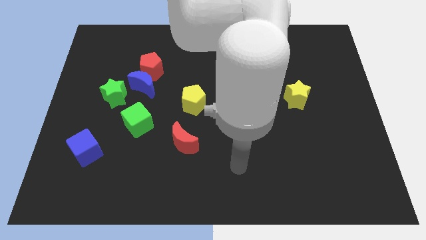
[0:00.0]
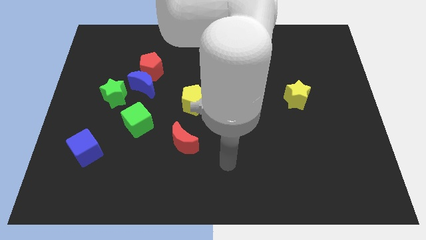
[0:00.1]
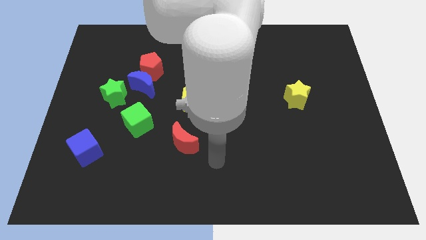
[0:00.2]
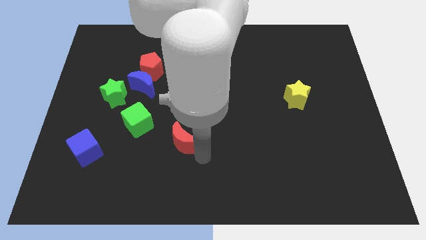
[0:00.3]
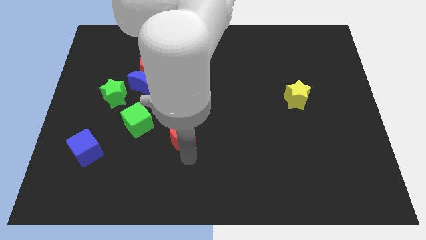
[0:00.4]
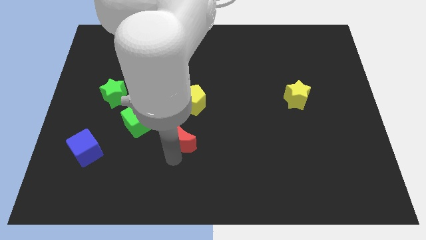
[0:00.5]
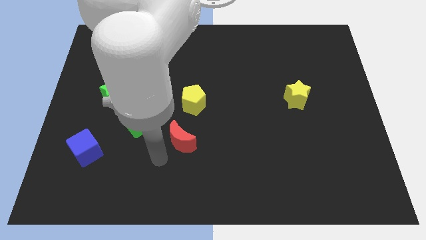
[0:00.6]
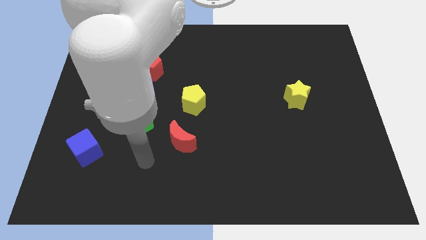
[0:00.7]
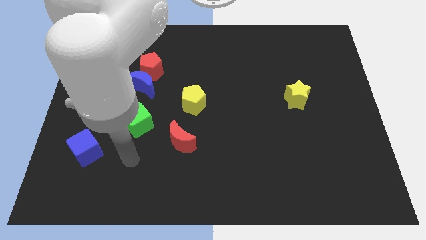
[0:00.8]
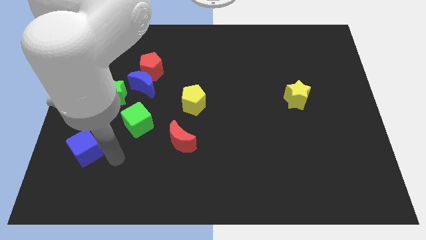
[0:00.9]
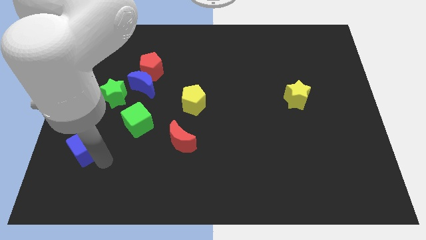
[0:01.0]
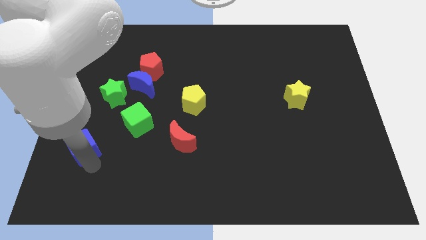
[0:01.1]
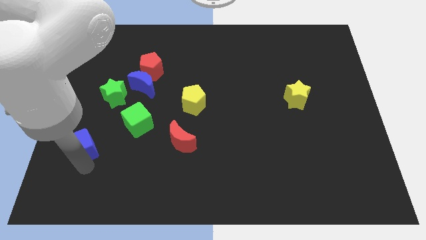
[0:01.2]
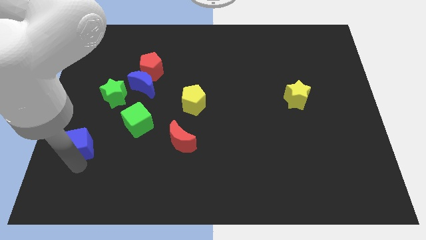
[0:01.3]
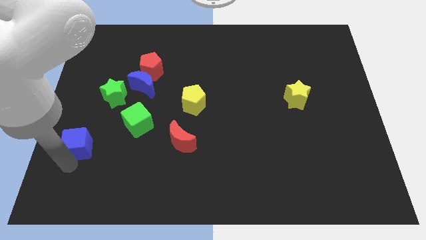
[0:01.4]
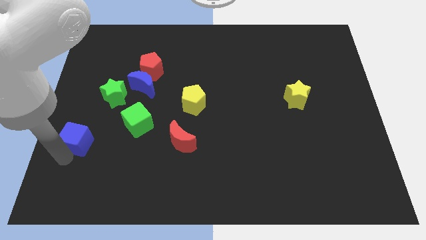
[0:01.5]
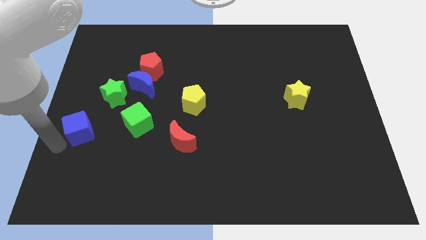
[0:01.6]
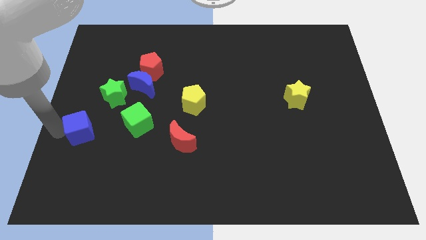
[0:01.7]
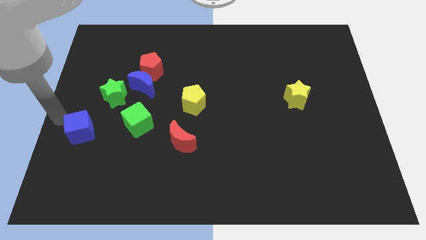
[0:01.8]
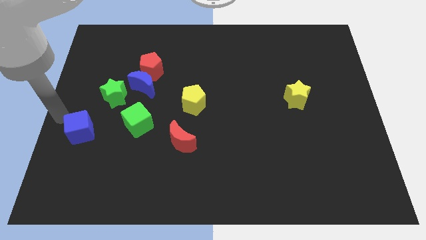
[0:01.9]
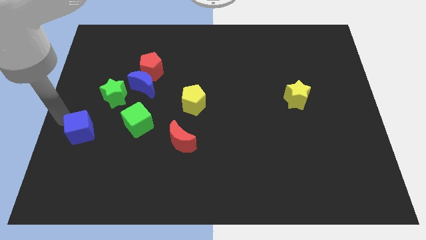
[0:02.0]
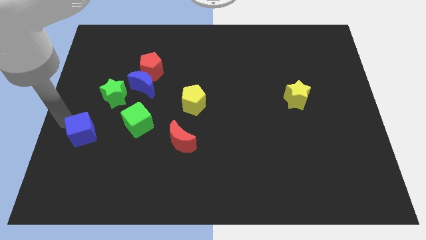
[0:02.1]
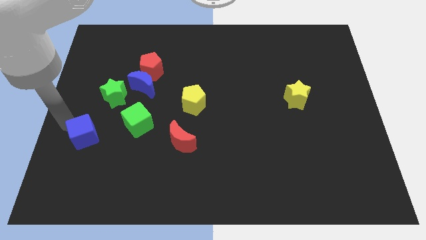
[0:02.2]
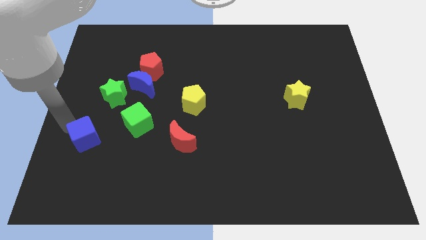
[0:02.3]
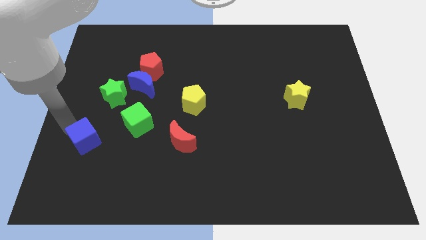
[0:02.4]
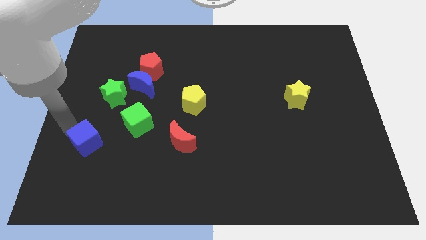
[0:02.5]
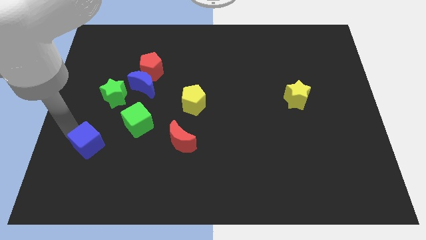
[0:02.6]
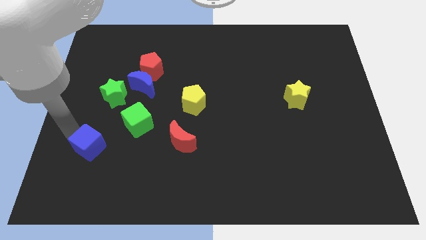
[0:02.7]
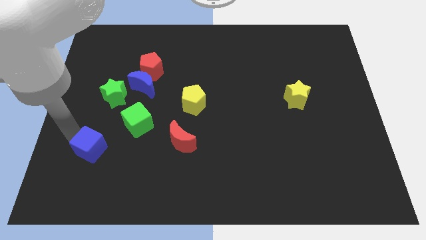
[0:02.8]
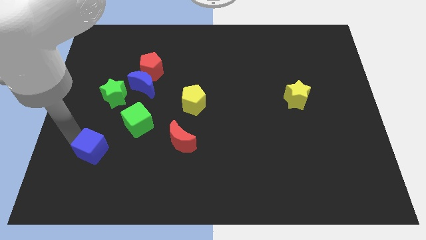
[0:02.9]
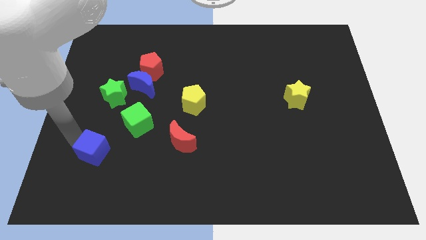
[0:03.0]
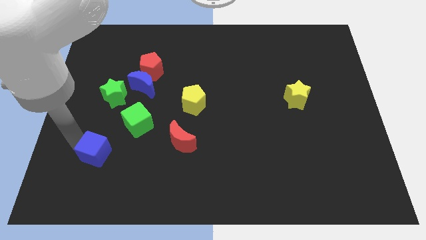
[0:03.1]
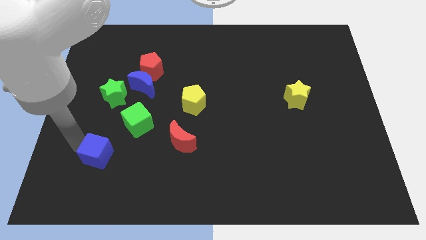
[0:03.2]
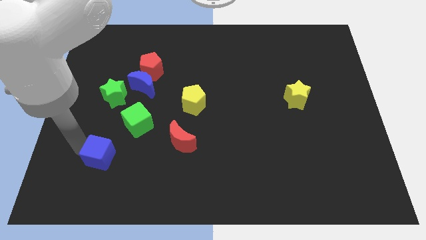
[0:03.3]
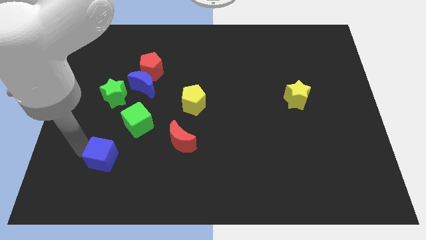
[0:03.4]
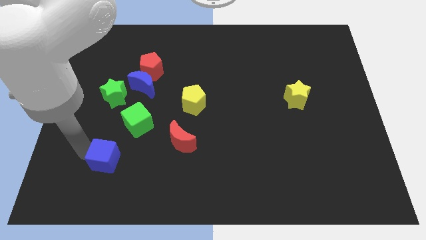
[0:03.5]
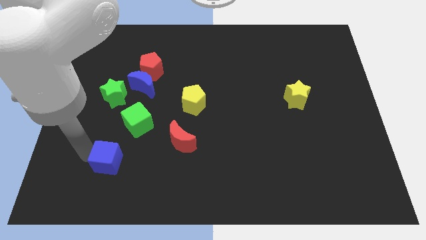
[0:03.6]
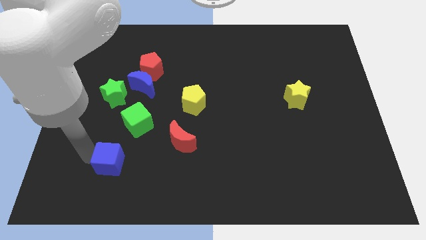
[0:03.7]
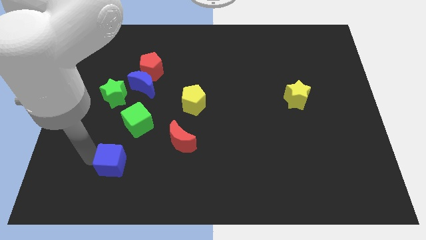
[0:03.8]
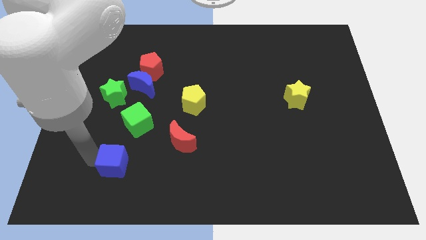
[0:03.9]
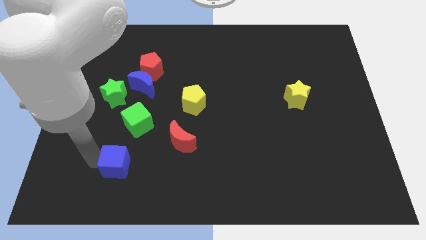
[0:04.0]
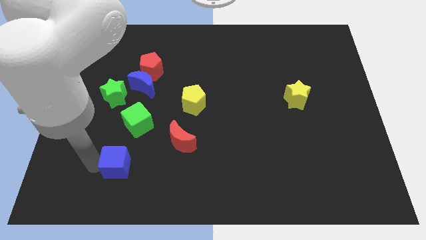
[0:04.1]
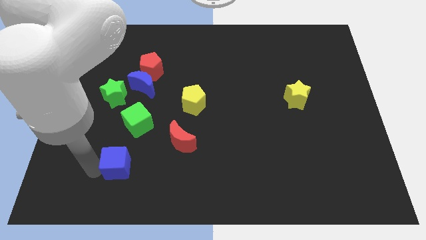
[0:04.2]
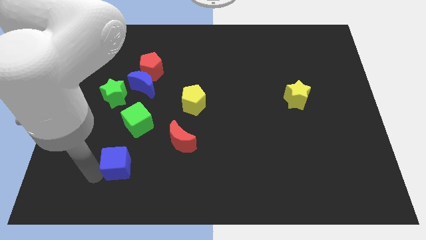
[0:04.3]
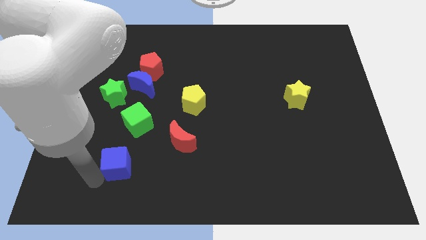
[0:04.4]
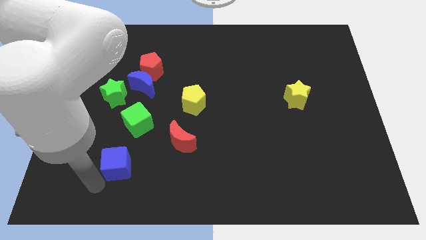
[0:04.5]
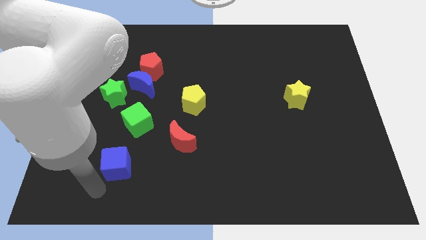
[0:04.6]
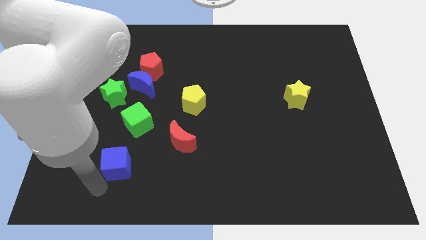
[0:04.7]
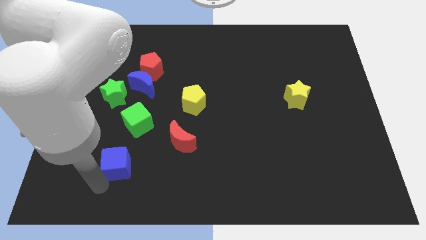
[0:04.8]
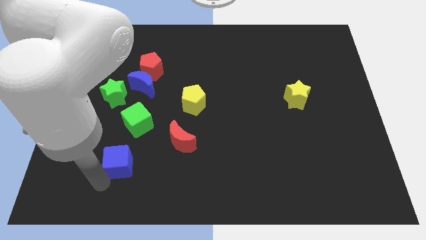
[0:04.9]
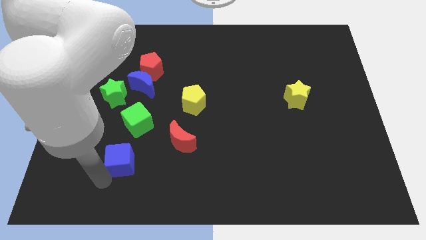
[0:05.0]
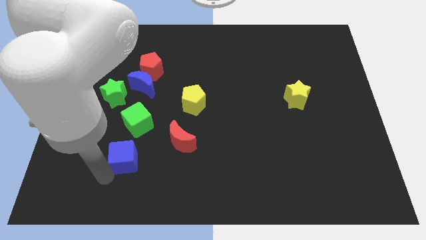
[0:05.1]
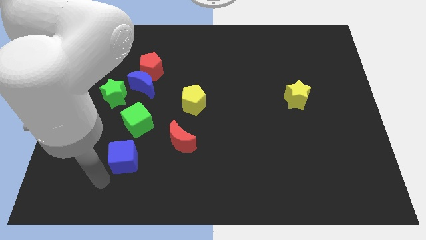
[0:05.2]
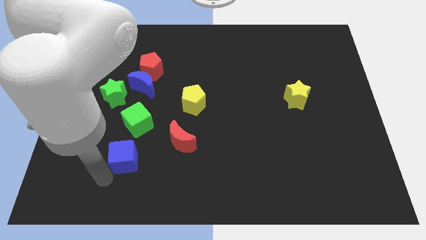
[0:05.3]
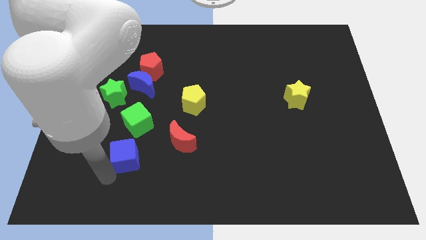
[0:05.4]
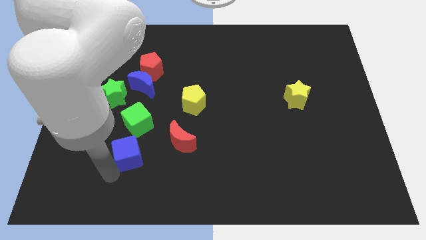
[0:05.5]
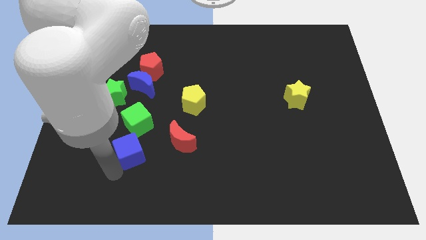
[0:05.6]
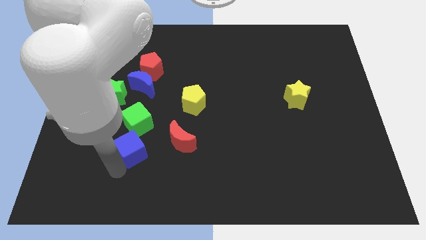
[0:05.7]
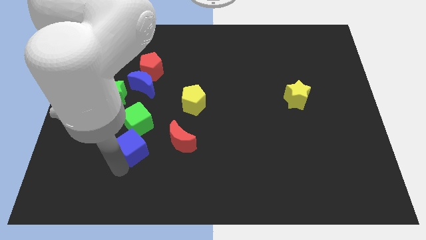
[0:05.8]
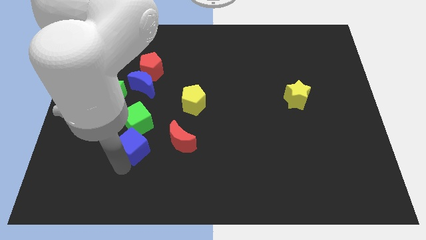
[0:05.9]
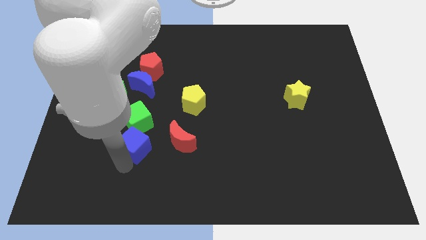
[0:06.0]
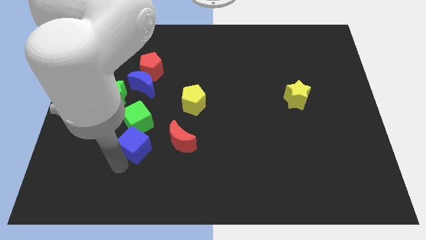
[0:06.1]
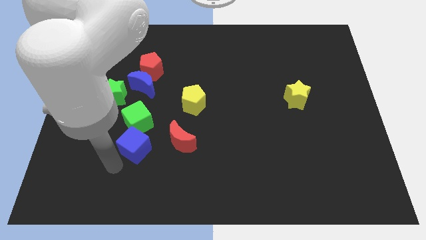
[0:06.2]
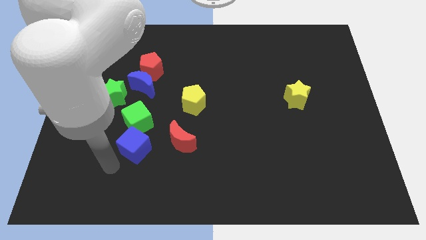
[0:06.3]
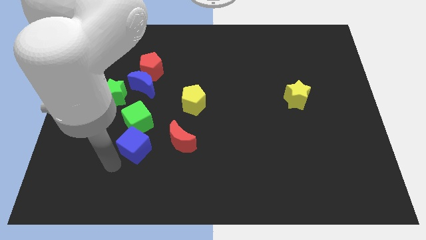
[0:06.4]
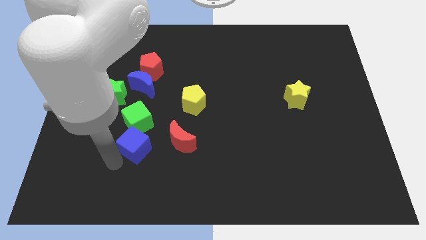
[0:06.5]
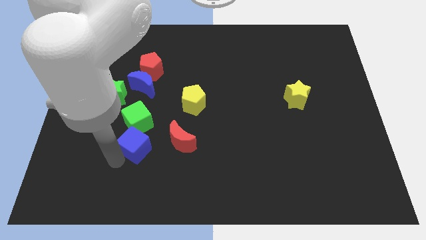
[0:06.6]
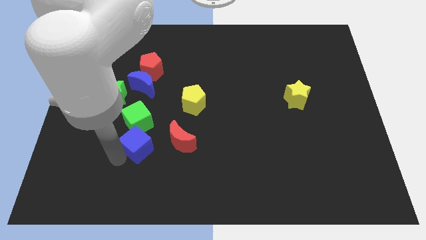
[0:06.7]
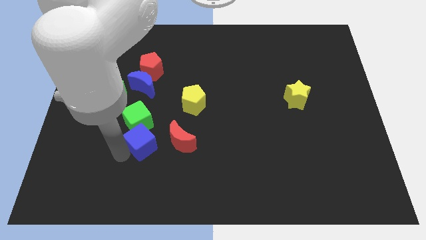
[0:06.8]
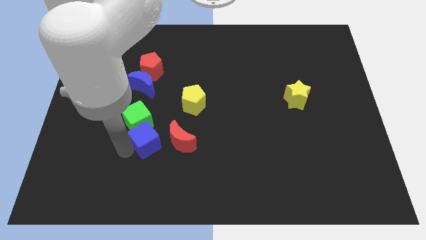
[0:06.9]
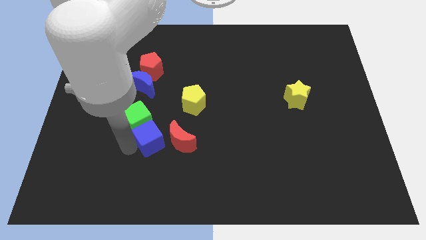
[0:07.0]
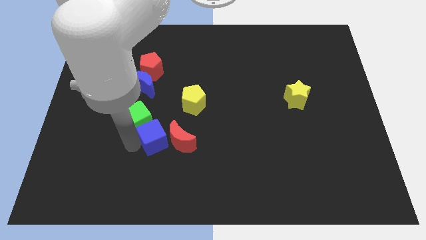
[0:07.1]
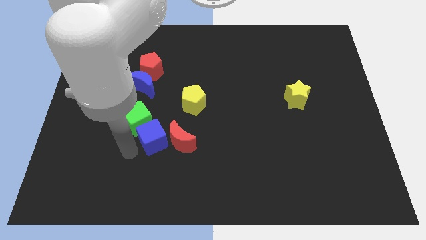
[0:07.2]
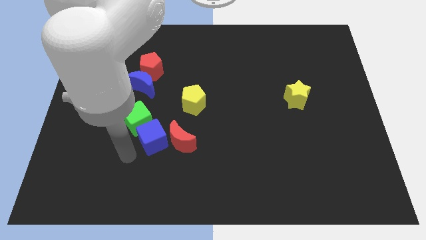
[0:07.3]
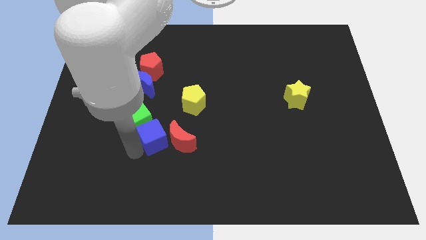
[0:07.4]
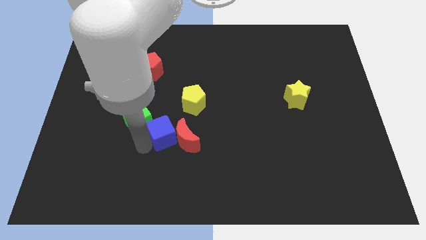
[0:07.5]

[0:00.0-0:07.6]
put the blue cube right of the green cube
